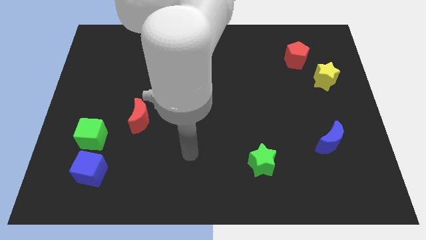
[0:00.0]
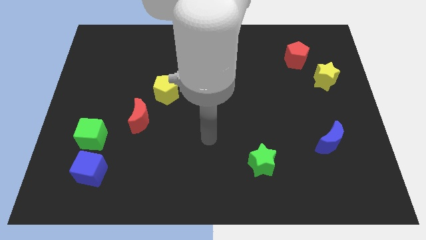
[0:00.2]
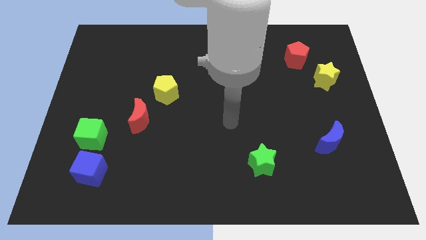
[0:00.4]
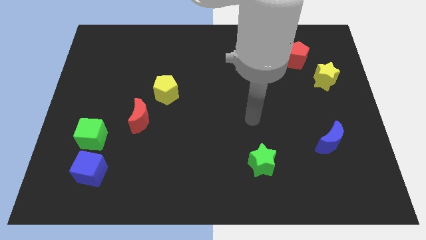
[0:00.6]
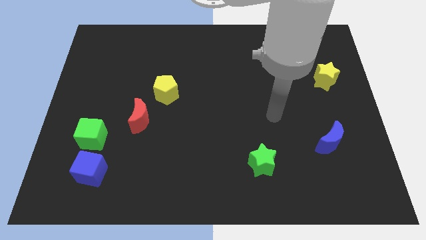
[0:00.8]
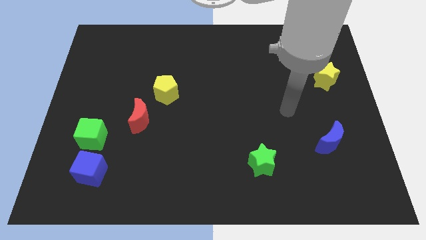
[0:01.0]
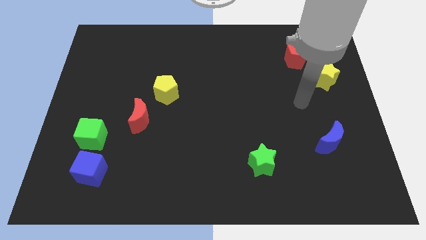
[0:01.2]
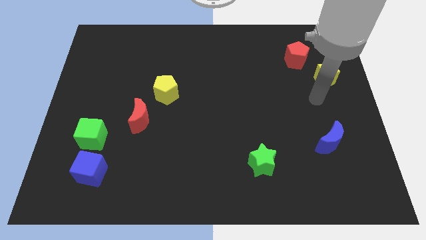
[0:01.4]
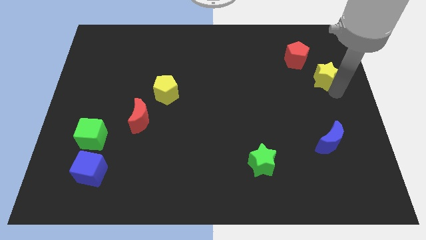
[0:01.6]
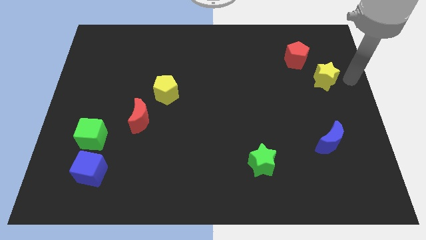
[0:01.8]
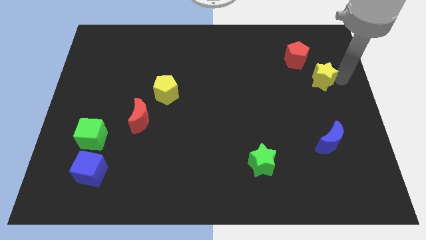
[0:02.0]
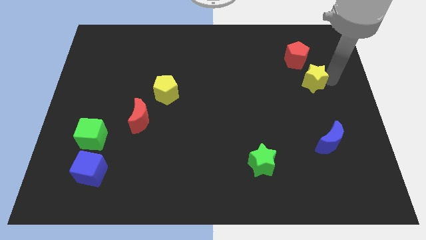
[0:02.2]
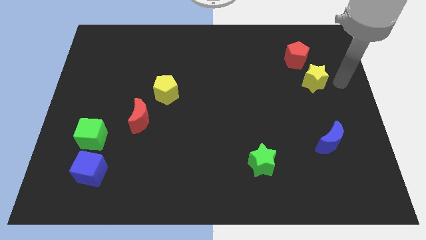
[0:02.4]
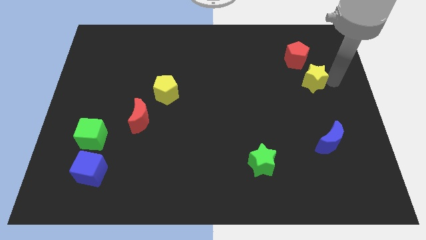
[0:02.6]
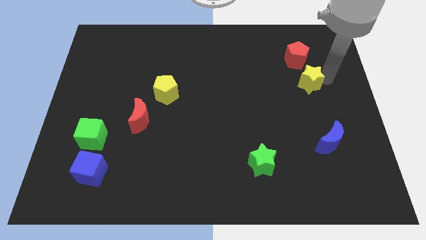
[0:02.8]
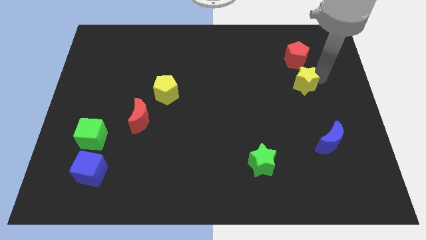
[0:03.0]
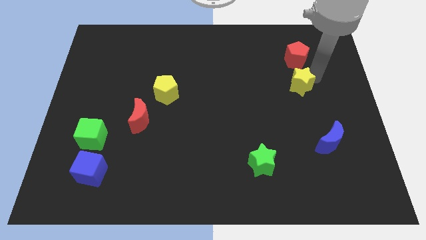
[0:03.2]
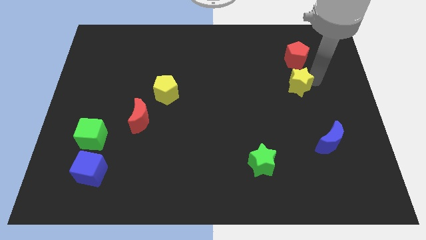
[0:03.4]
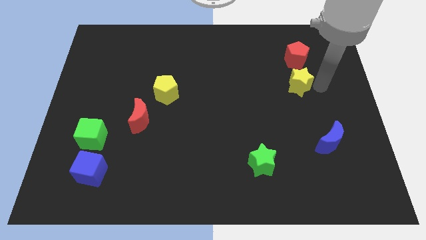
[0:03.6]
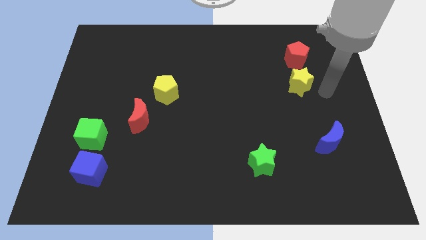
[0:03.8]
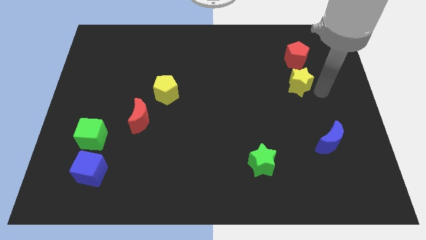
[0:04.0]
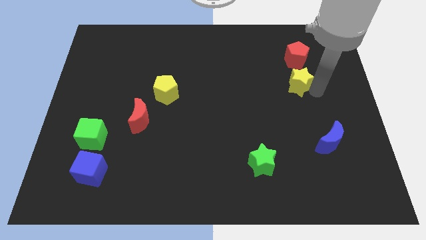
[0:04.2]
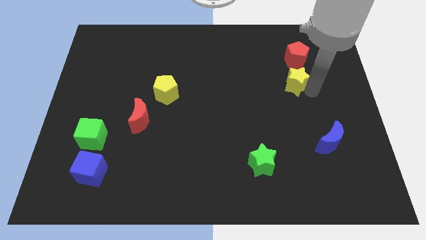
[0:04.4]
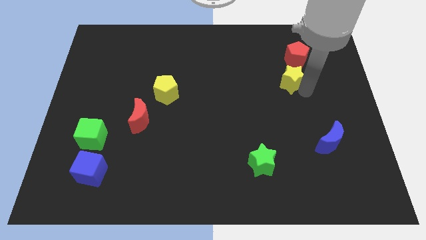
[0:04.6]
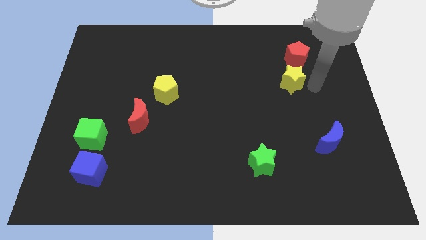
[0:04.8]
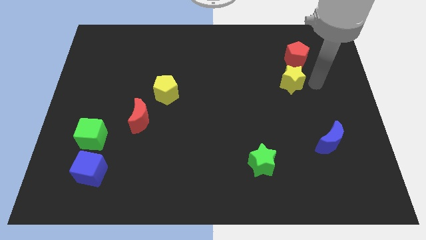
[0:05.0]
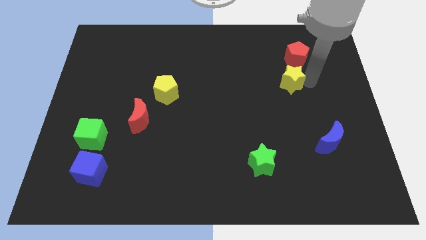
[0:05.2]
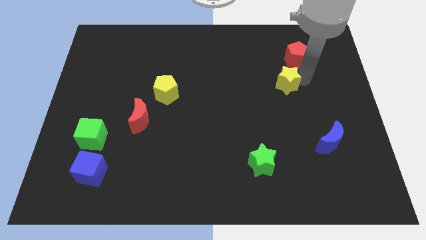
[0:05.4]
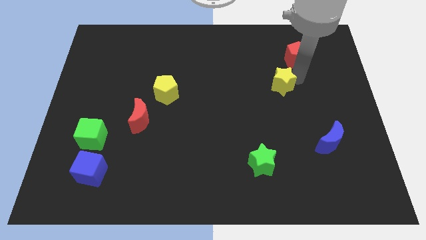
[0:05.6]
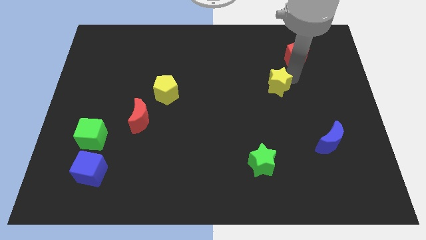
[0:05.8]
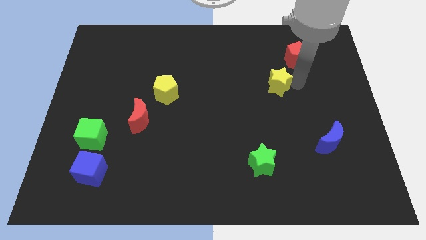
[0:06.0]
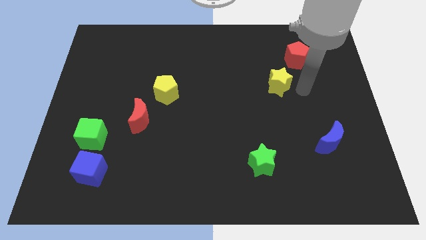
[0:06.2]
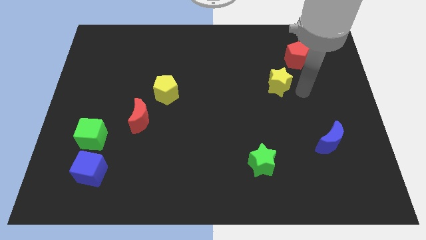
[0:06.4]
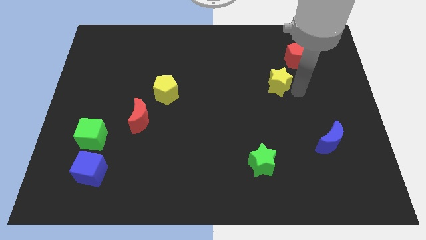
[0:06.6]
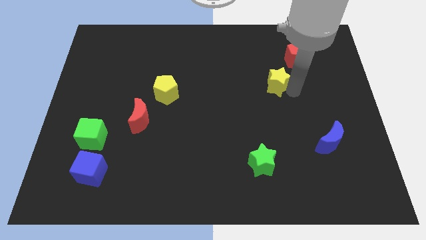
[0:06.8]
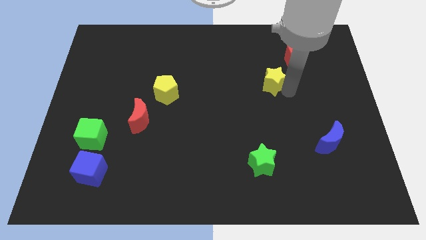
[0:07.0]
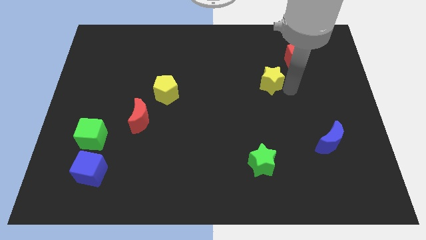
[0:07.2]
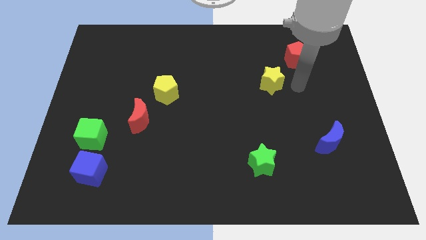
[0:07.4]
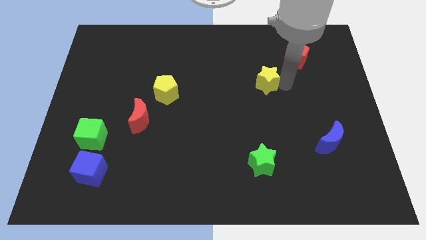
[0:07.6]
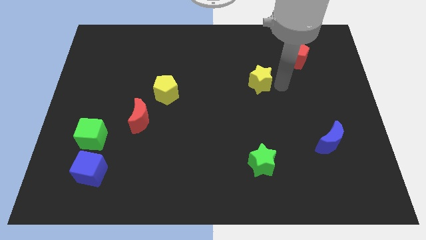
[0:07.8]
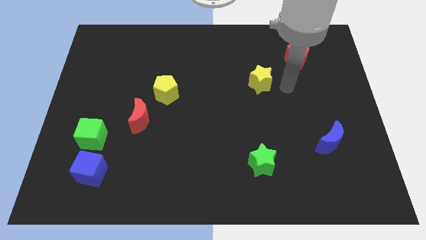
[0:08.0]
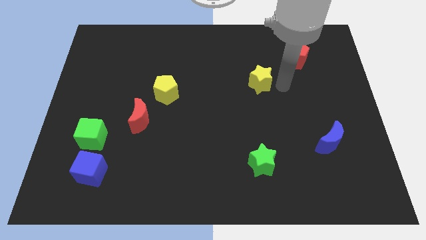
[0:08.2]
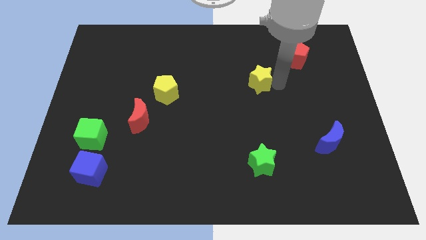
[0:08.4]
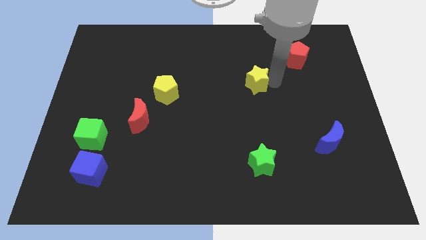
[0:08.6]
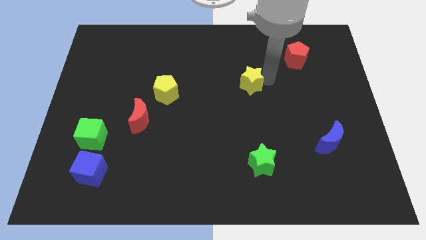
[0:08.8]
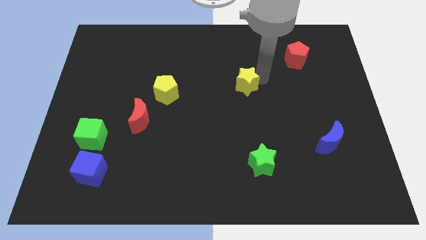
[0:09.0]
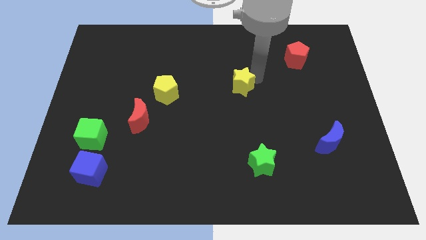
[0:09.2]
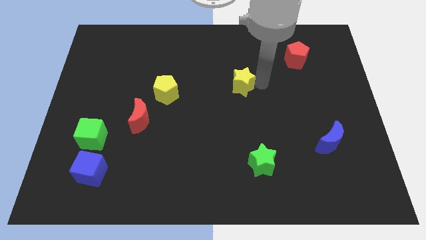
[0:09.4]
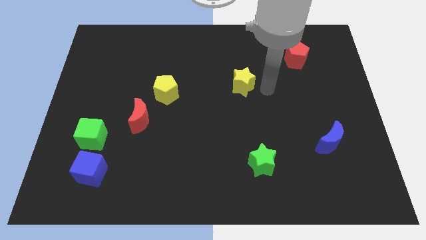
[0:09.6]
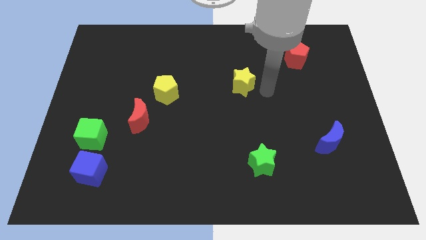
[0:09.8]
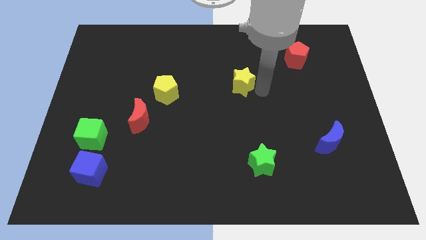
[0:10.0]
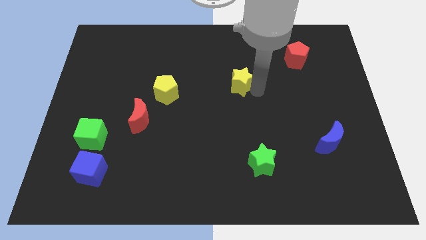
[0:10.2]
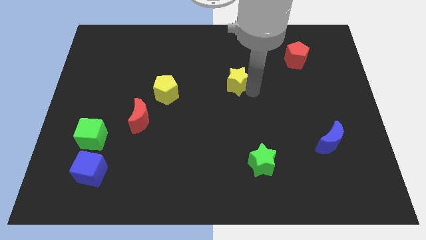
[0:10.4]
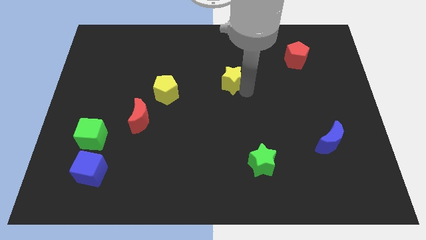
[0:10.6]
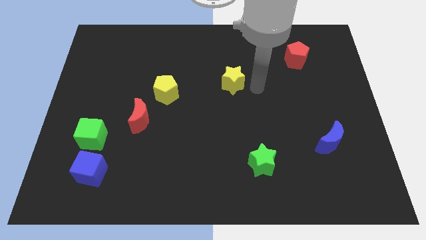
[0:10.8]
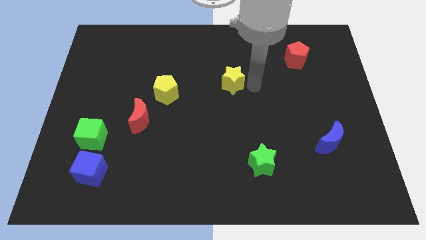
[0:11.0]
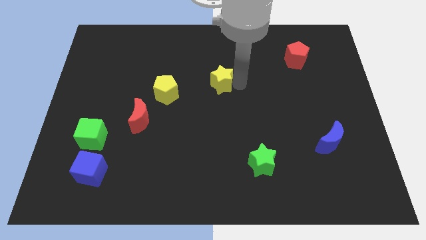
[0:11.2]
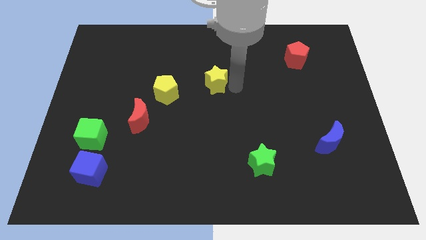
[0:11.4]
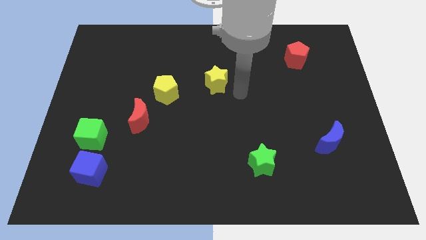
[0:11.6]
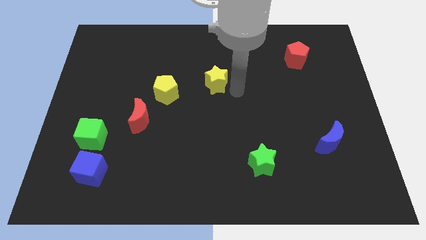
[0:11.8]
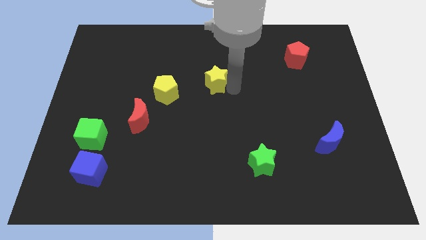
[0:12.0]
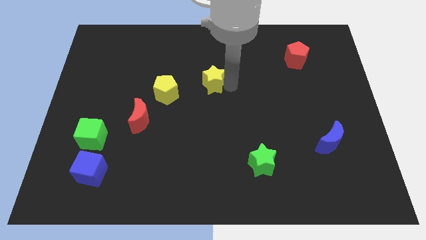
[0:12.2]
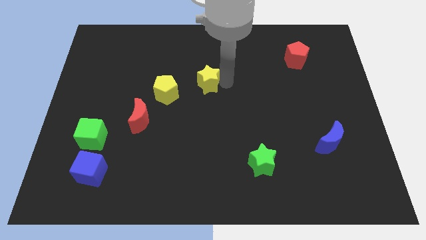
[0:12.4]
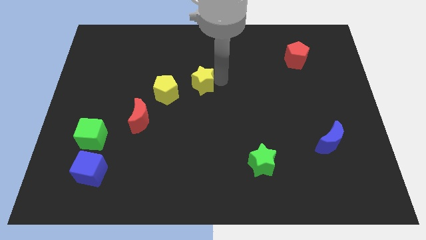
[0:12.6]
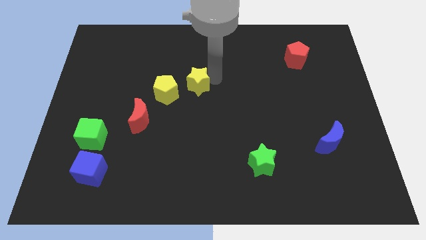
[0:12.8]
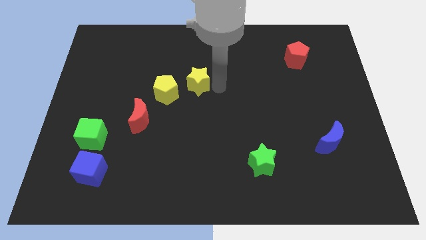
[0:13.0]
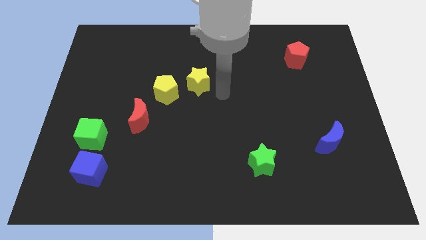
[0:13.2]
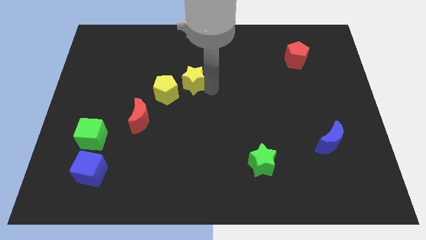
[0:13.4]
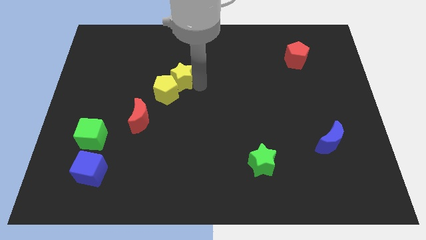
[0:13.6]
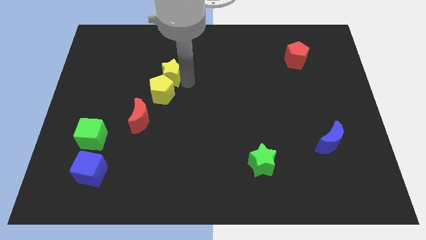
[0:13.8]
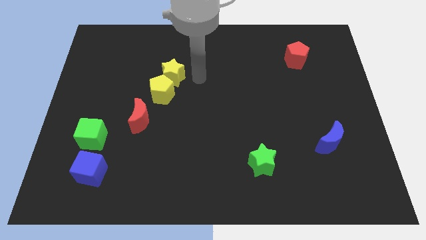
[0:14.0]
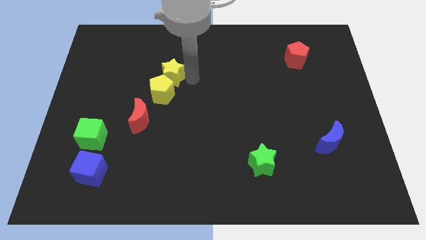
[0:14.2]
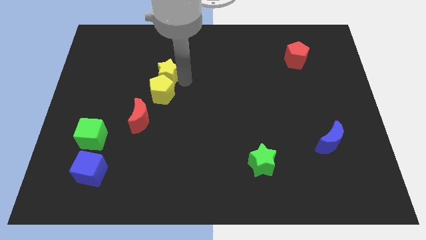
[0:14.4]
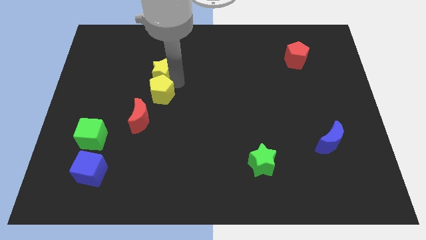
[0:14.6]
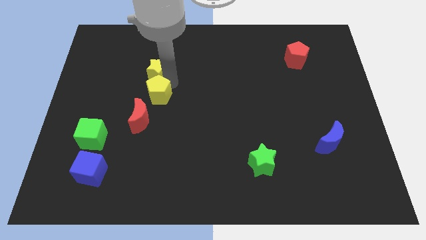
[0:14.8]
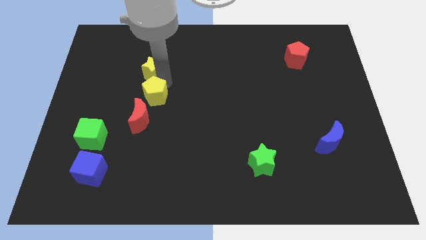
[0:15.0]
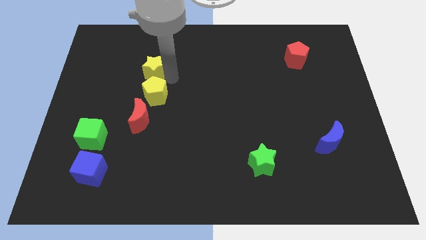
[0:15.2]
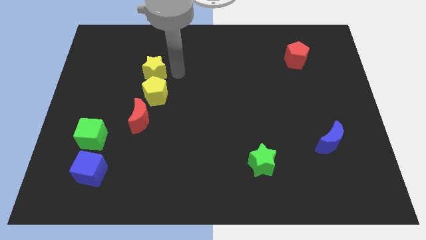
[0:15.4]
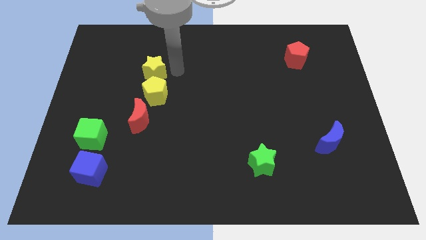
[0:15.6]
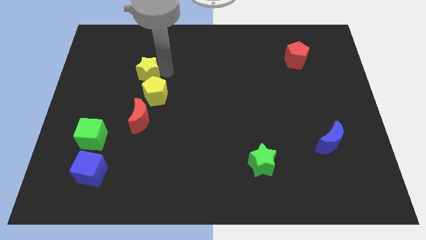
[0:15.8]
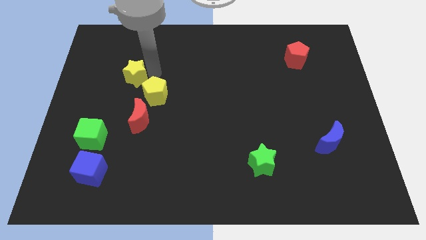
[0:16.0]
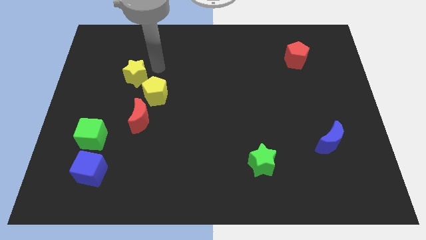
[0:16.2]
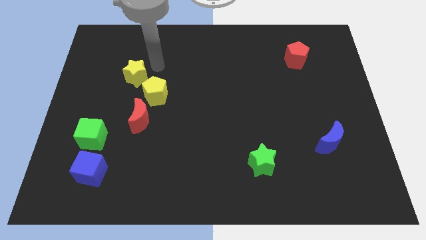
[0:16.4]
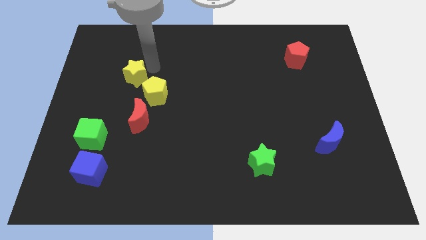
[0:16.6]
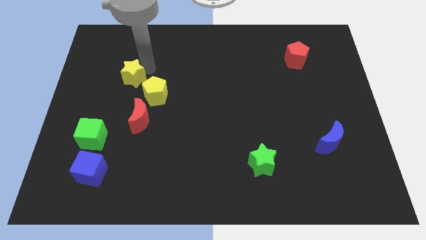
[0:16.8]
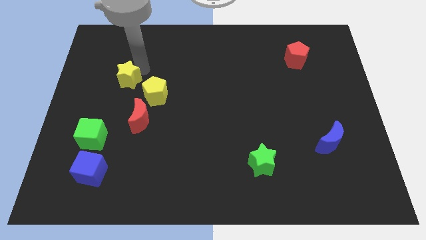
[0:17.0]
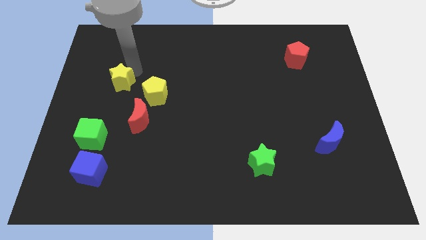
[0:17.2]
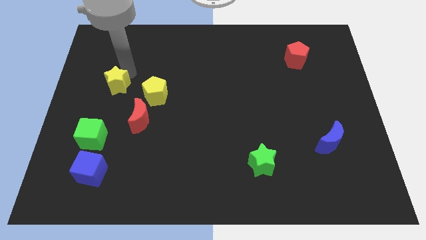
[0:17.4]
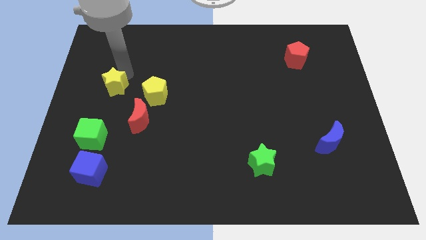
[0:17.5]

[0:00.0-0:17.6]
slide the yellow star above the green cube
